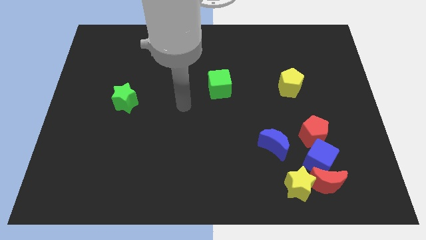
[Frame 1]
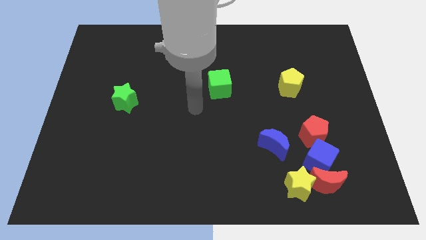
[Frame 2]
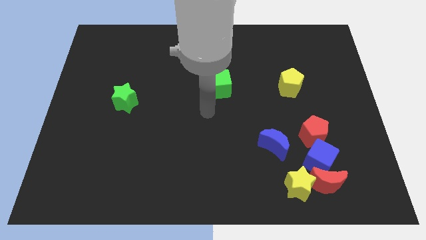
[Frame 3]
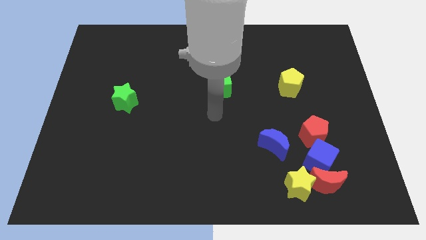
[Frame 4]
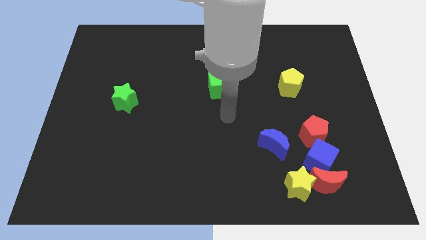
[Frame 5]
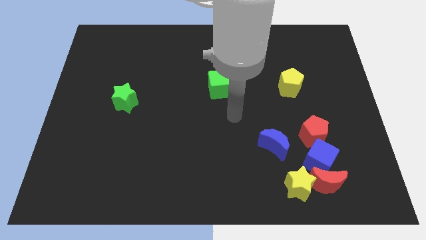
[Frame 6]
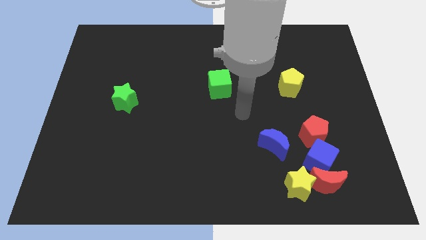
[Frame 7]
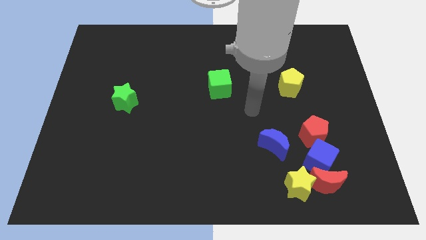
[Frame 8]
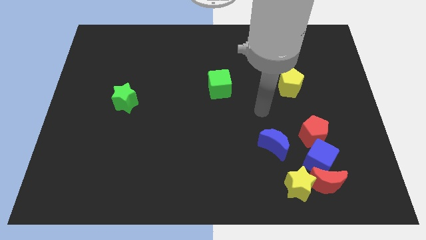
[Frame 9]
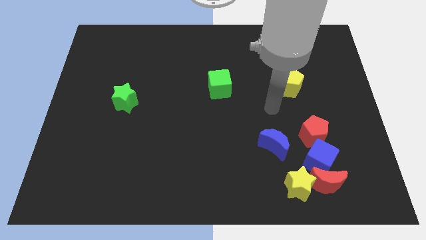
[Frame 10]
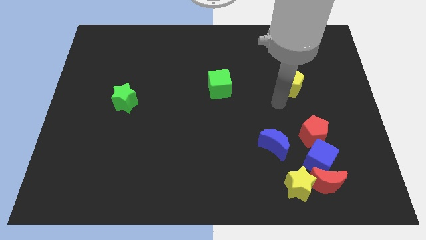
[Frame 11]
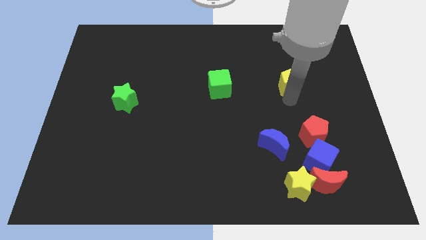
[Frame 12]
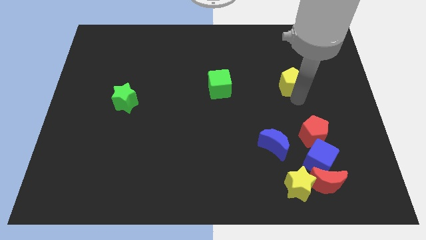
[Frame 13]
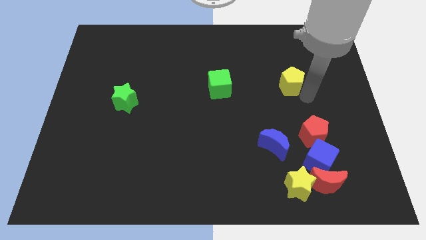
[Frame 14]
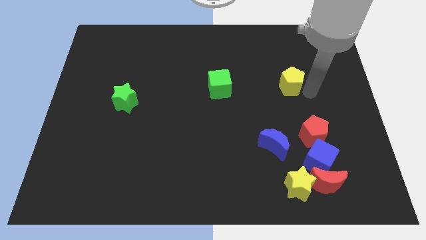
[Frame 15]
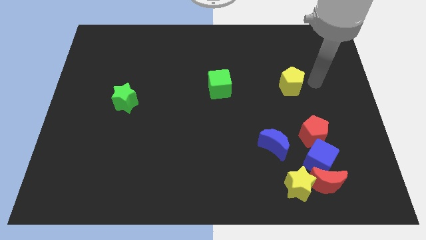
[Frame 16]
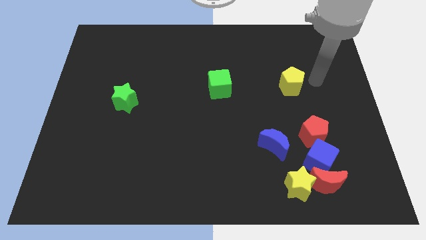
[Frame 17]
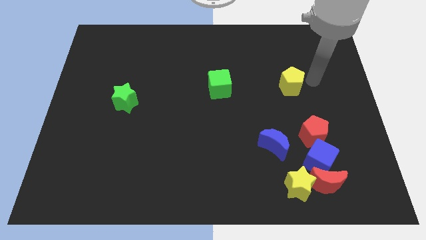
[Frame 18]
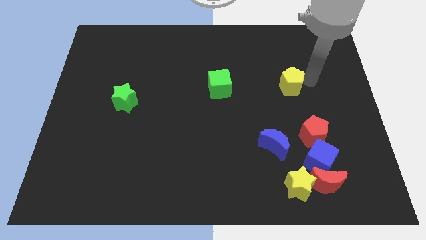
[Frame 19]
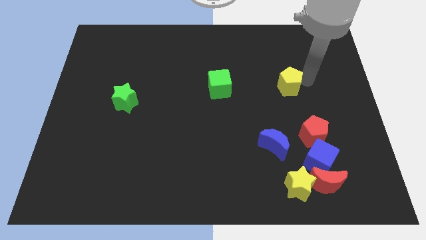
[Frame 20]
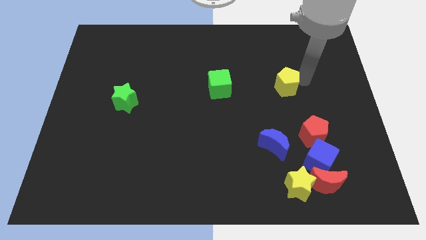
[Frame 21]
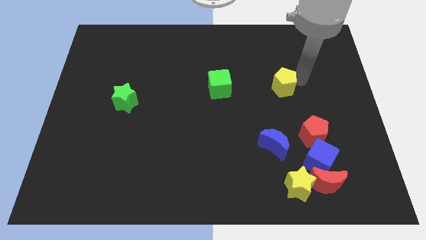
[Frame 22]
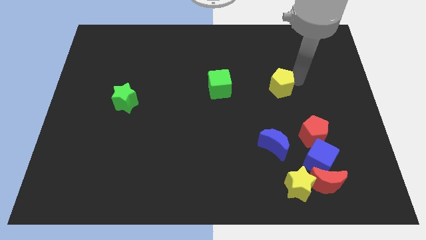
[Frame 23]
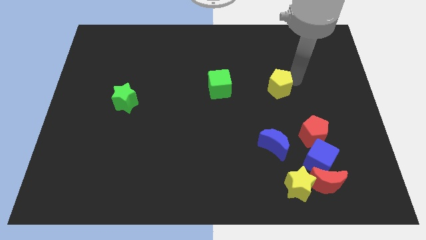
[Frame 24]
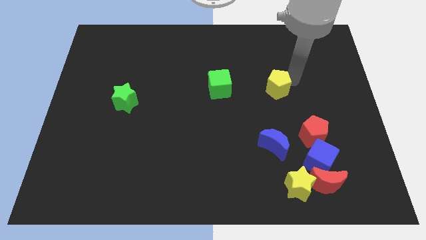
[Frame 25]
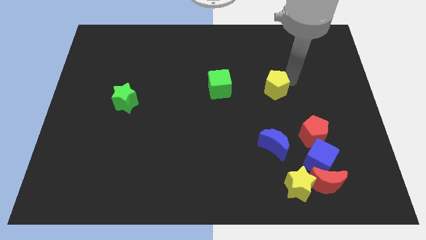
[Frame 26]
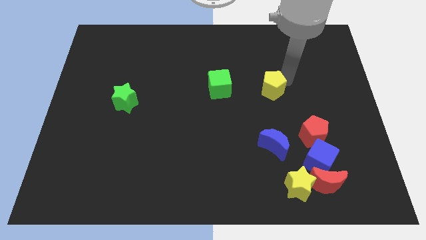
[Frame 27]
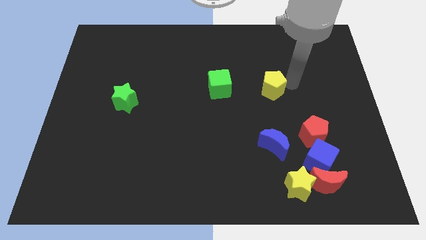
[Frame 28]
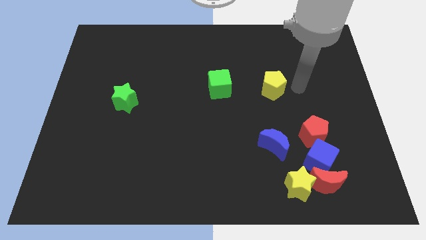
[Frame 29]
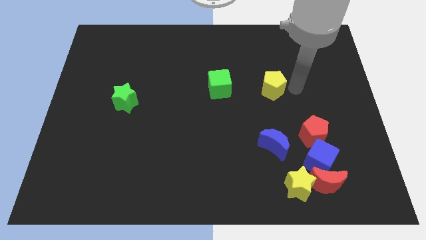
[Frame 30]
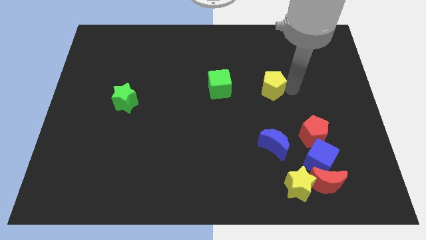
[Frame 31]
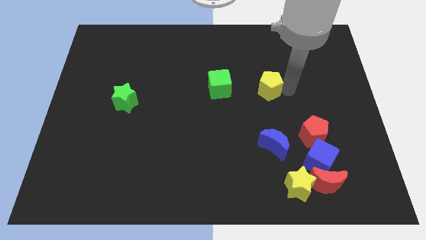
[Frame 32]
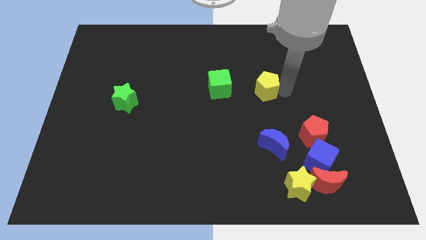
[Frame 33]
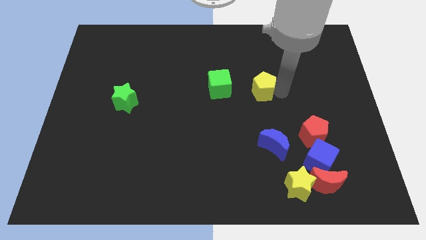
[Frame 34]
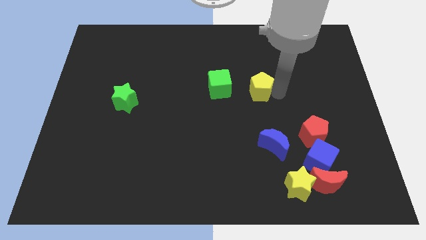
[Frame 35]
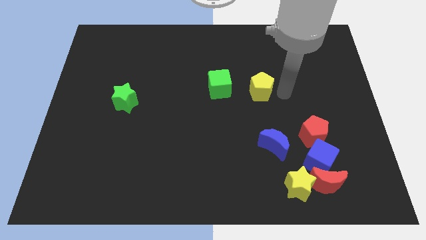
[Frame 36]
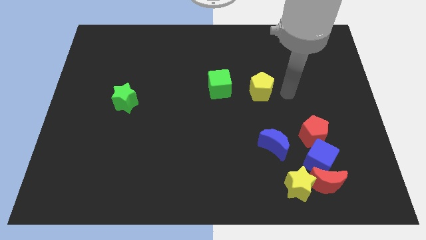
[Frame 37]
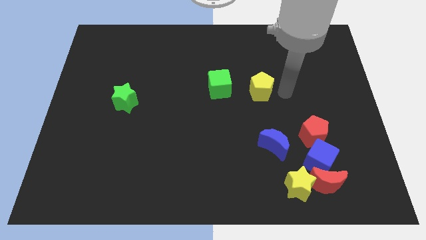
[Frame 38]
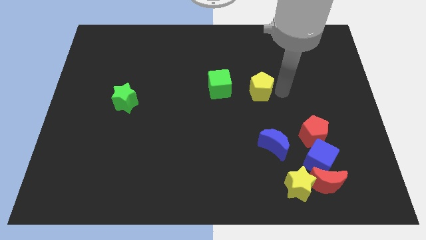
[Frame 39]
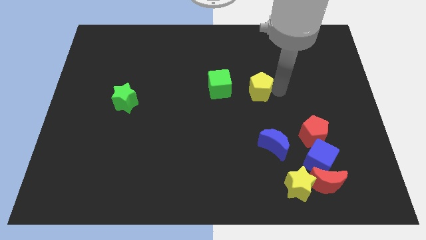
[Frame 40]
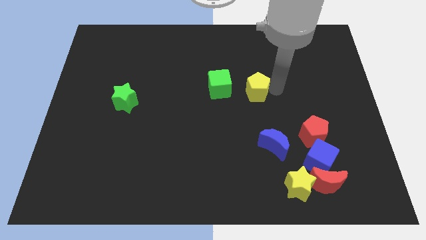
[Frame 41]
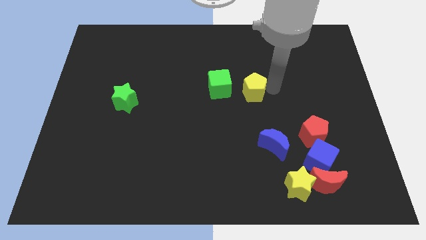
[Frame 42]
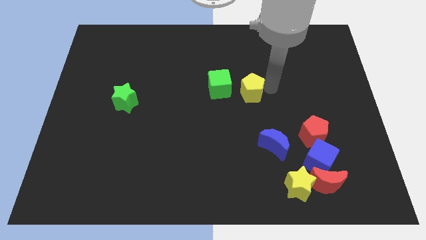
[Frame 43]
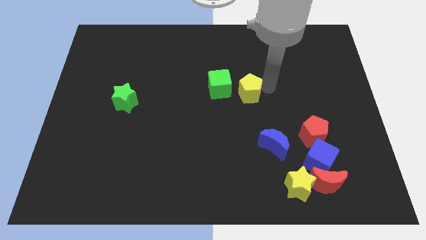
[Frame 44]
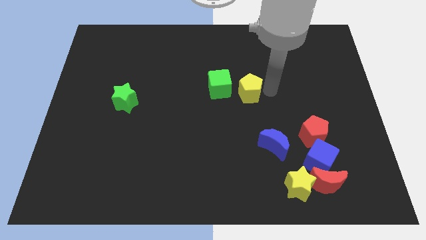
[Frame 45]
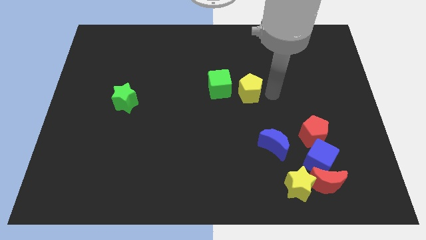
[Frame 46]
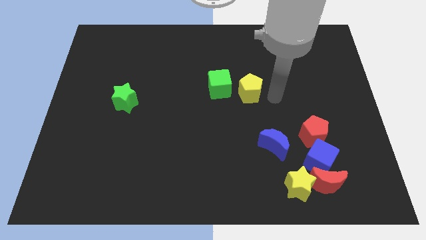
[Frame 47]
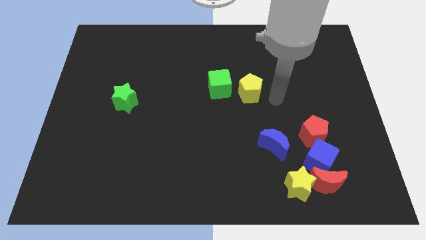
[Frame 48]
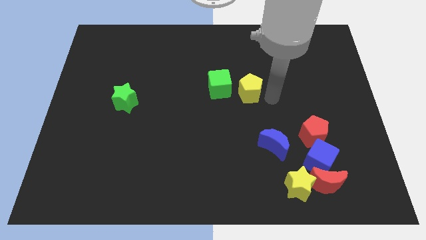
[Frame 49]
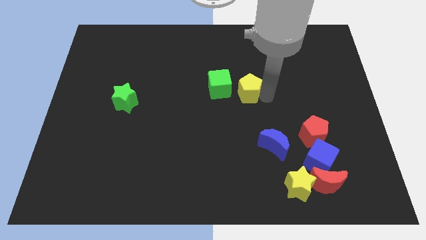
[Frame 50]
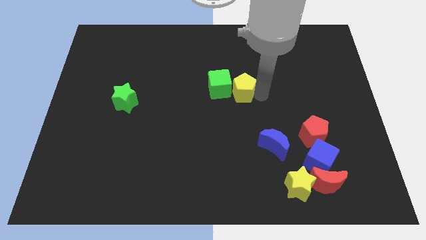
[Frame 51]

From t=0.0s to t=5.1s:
slide the yellow pentagon close to the green cube

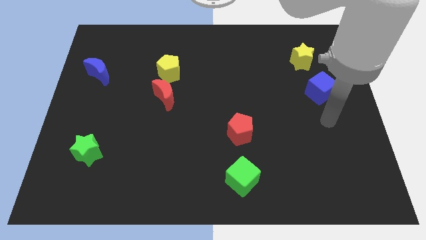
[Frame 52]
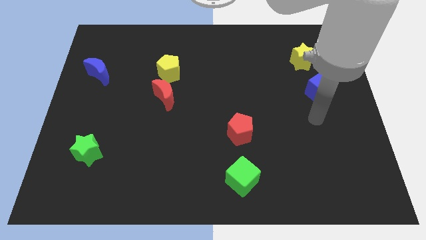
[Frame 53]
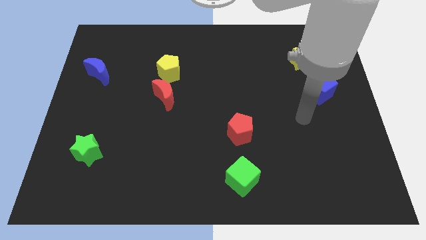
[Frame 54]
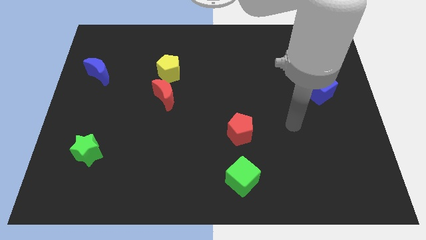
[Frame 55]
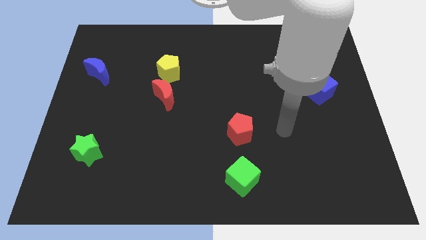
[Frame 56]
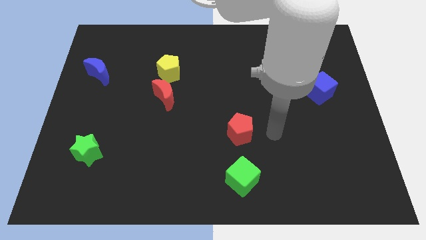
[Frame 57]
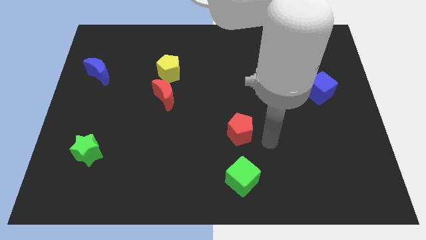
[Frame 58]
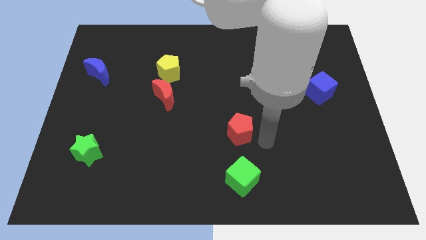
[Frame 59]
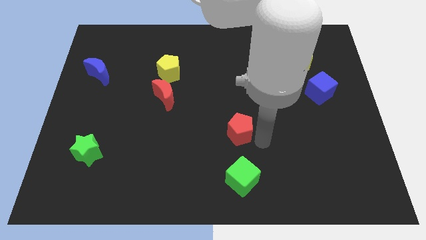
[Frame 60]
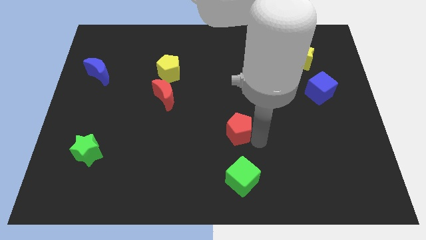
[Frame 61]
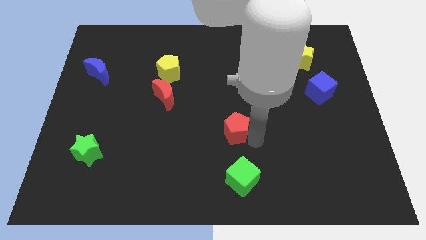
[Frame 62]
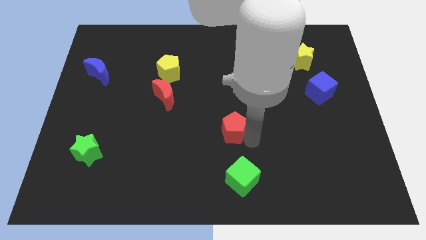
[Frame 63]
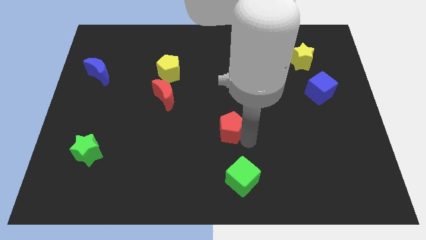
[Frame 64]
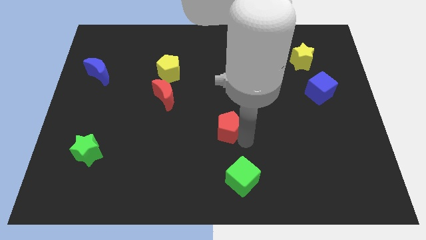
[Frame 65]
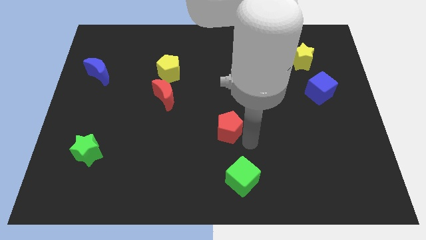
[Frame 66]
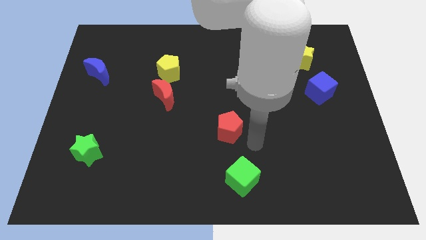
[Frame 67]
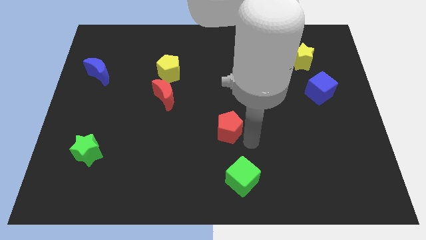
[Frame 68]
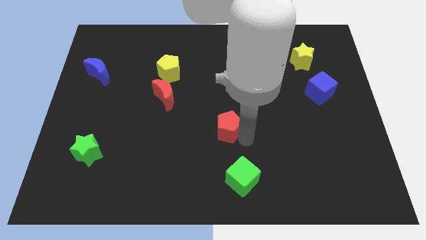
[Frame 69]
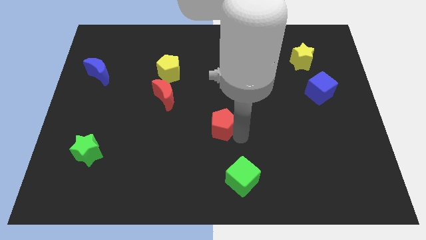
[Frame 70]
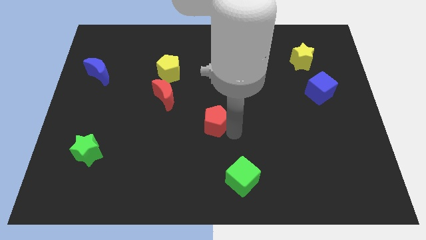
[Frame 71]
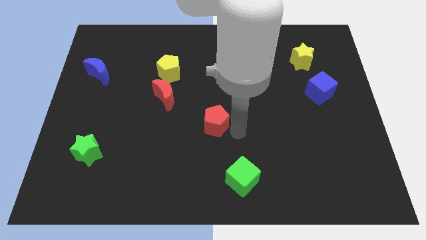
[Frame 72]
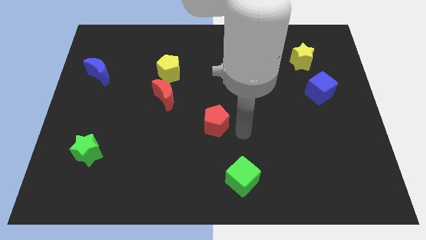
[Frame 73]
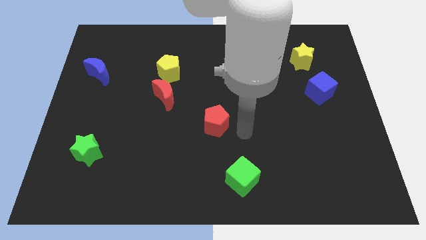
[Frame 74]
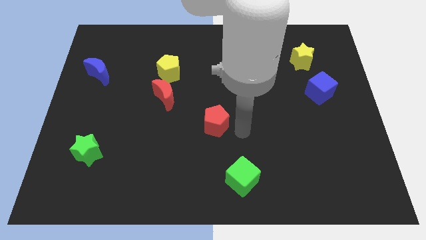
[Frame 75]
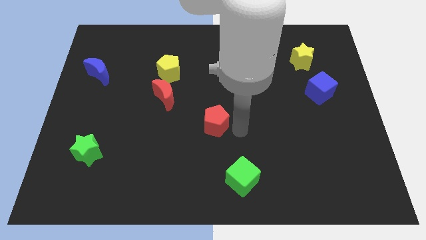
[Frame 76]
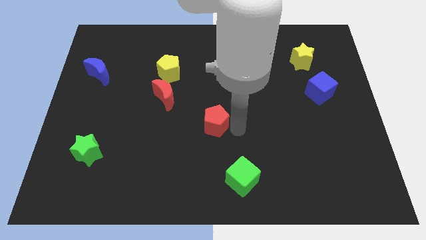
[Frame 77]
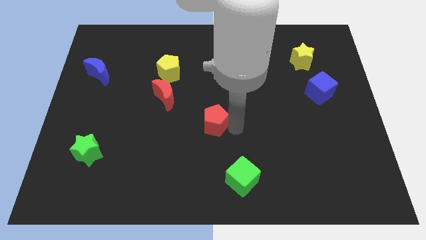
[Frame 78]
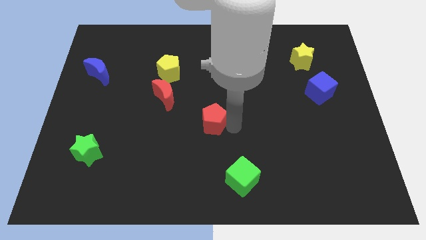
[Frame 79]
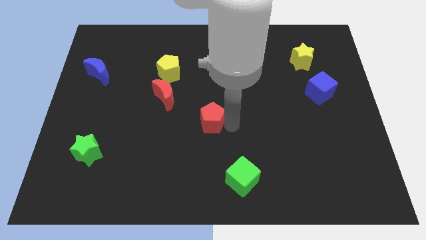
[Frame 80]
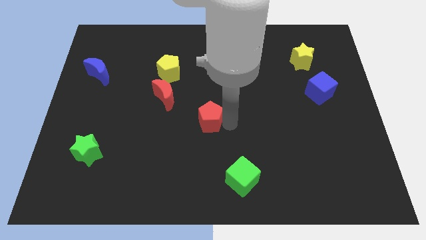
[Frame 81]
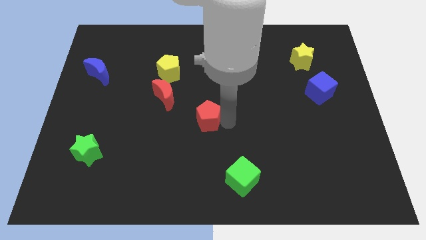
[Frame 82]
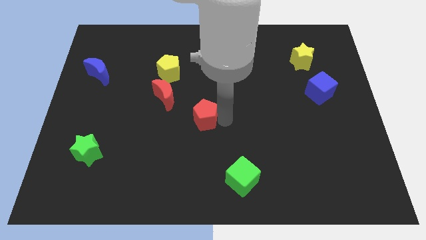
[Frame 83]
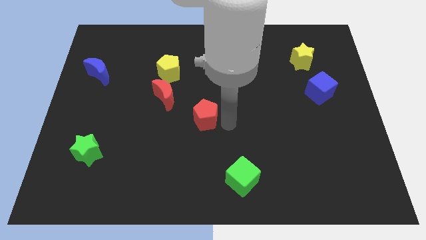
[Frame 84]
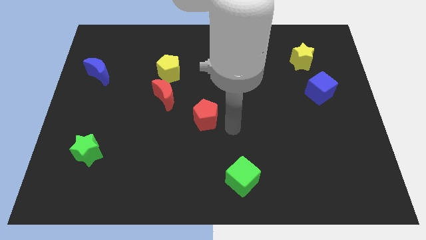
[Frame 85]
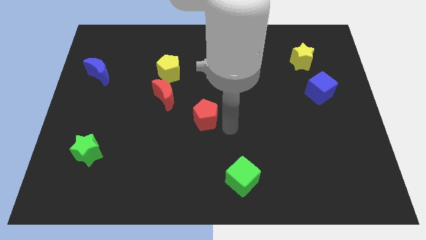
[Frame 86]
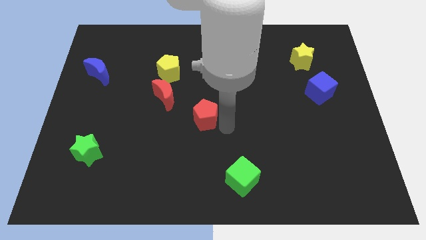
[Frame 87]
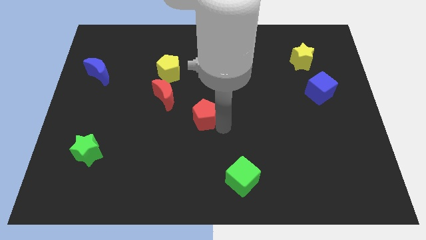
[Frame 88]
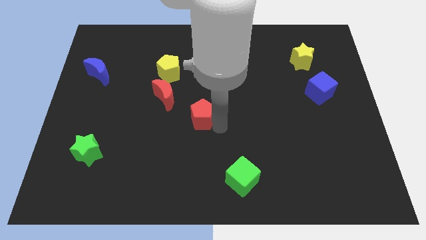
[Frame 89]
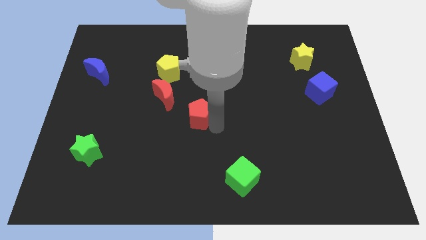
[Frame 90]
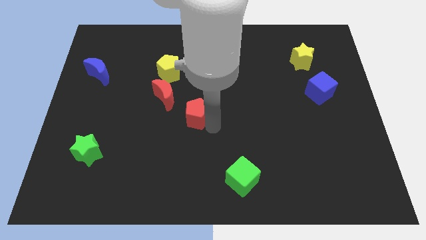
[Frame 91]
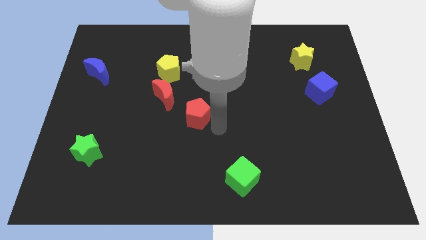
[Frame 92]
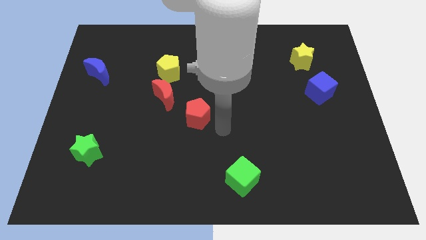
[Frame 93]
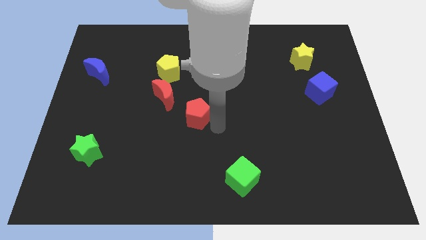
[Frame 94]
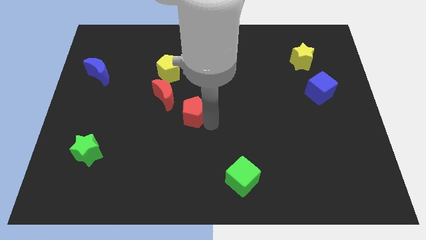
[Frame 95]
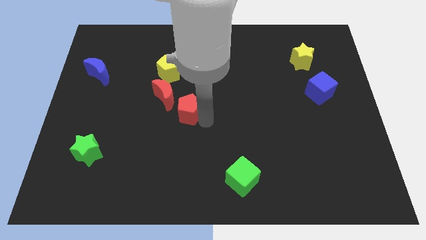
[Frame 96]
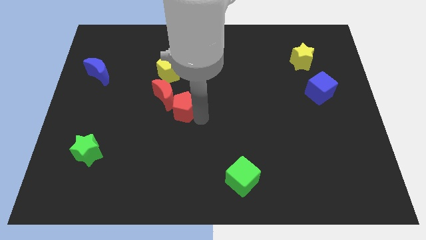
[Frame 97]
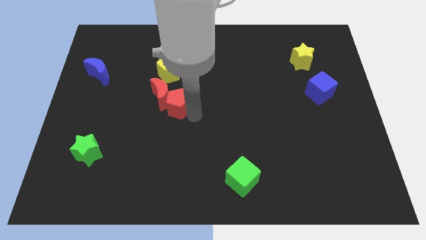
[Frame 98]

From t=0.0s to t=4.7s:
move the red pentagon close to the red moon
